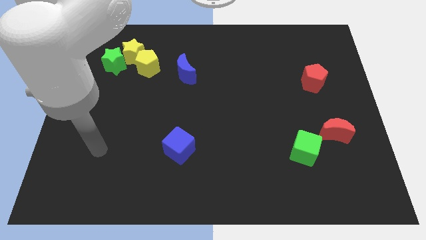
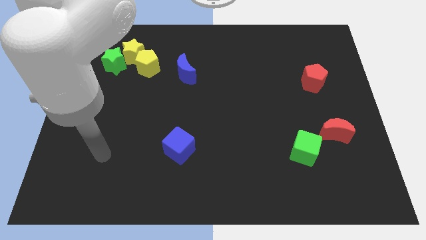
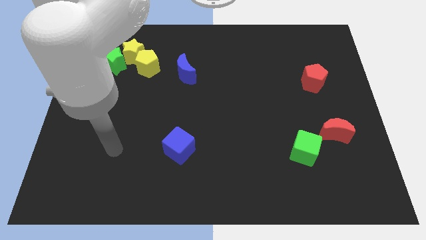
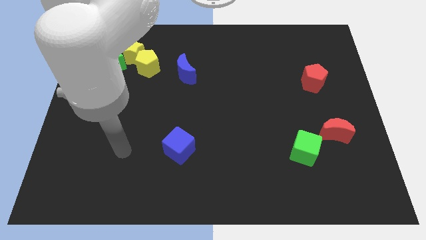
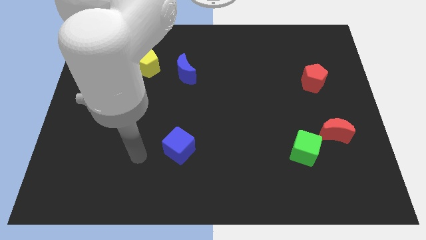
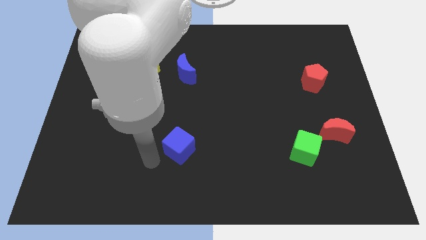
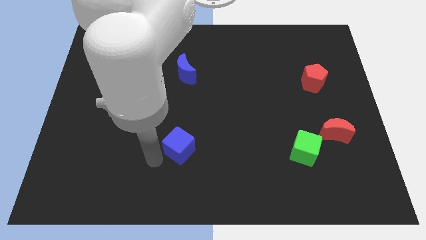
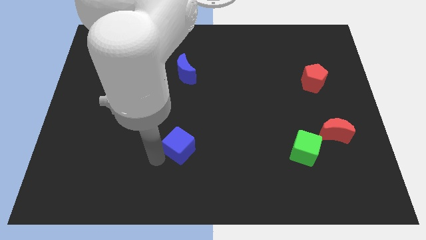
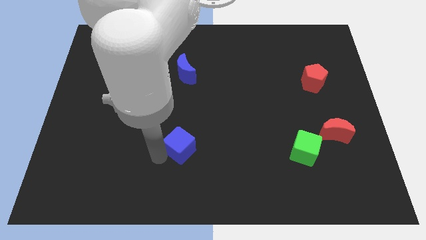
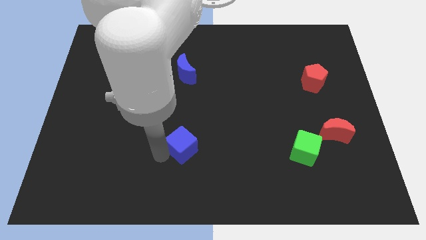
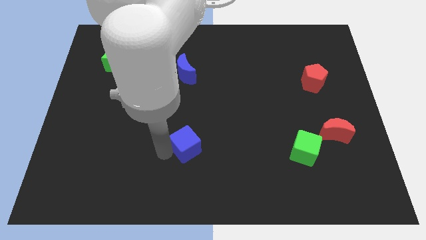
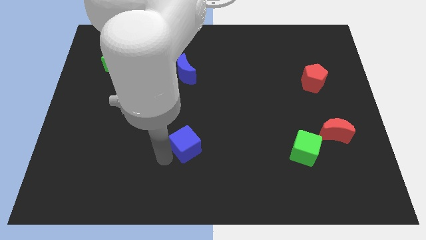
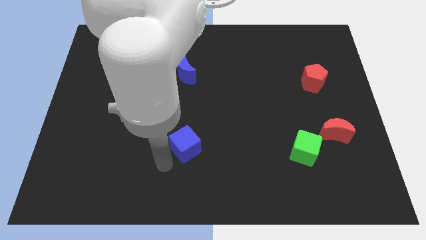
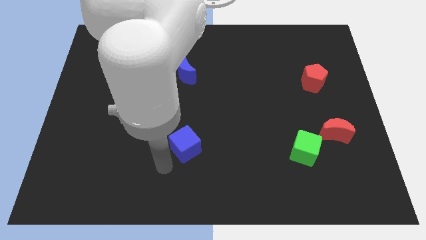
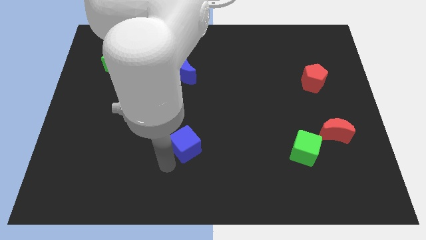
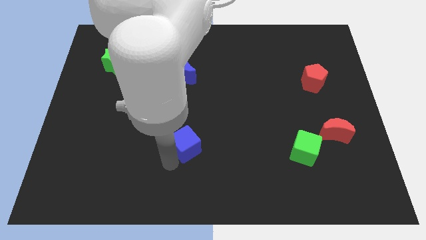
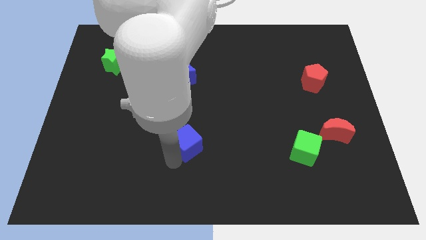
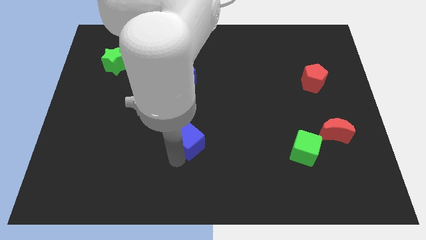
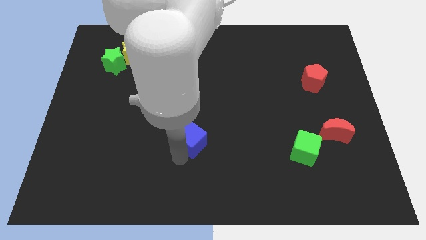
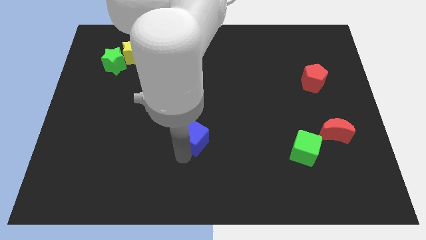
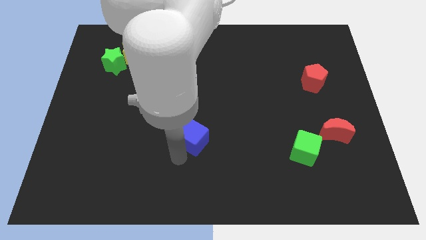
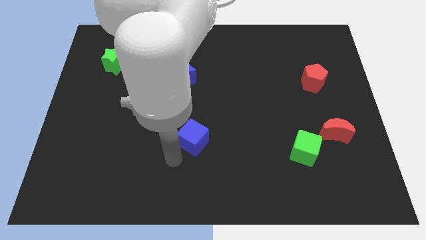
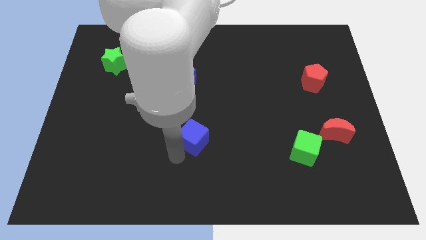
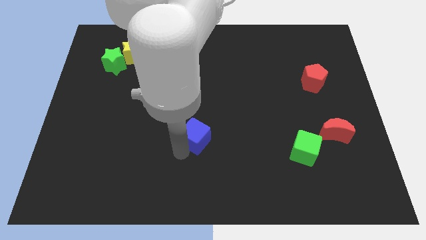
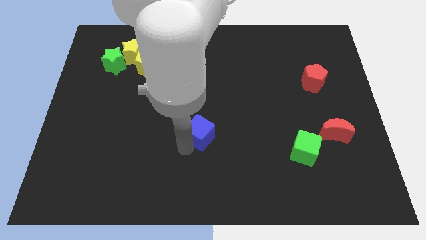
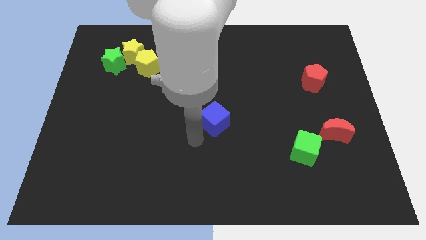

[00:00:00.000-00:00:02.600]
slide the blue cube diagonally upwards and right somewhat

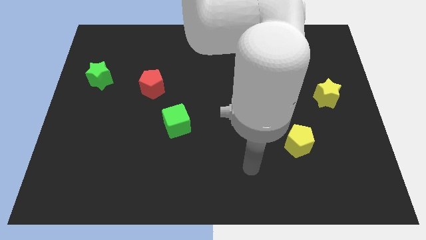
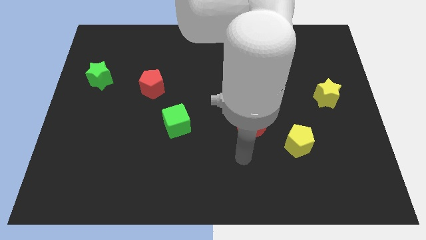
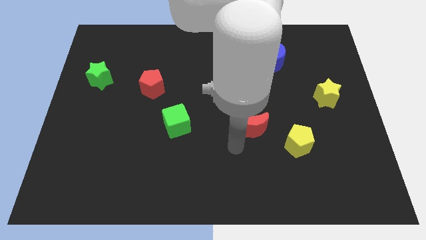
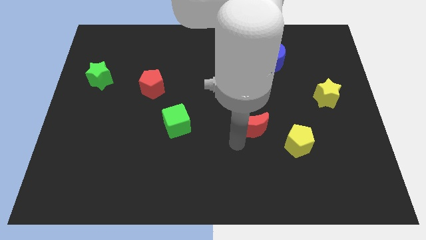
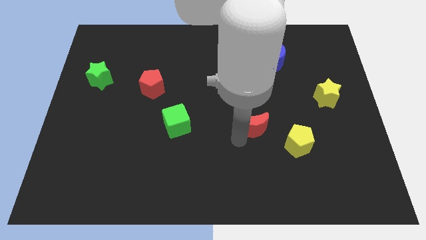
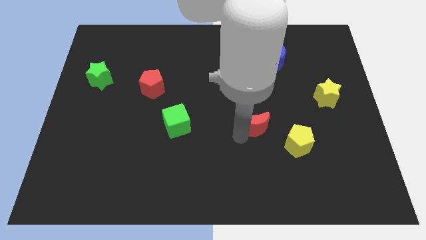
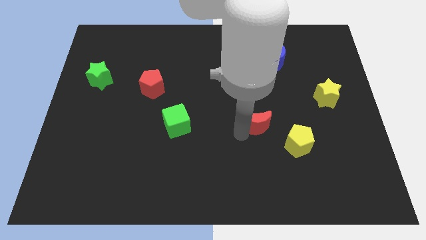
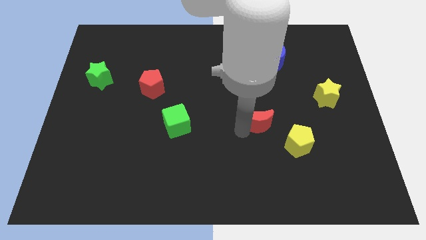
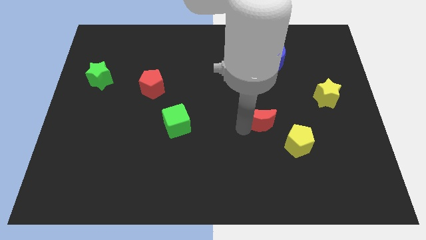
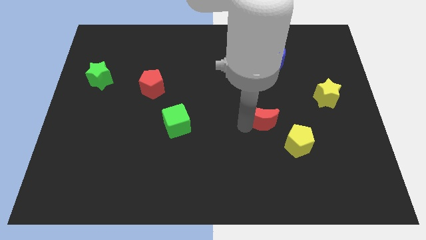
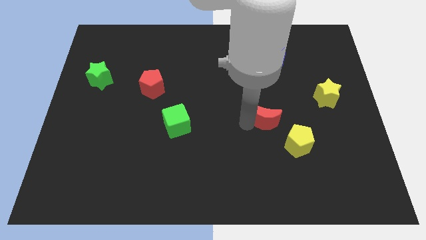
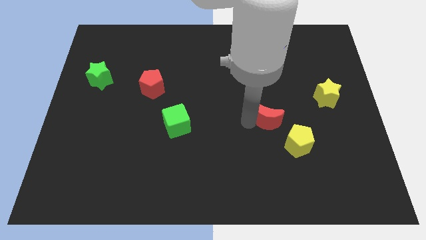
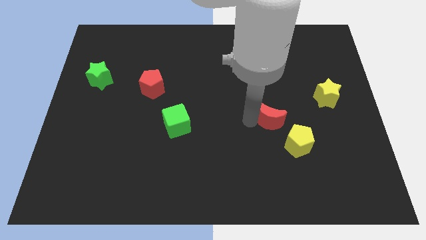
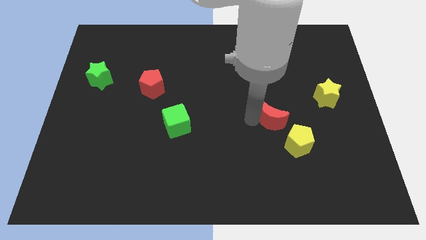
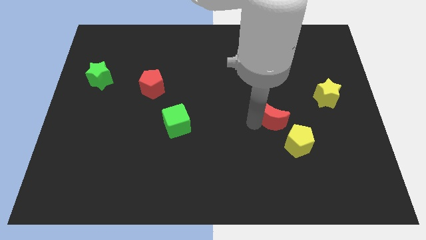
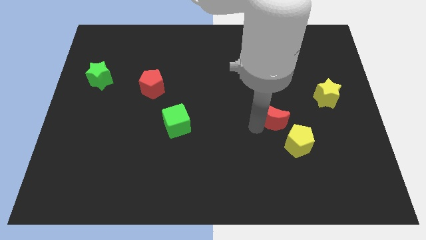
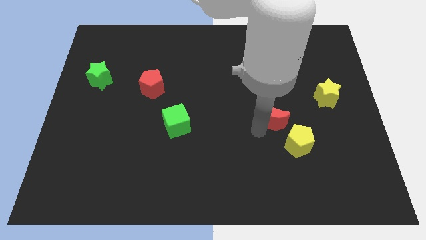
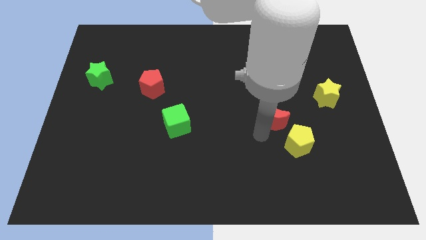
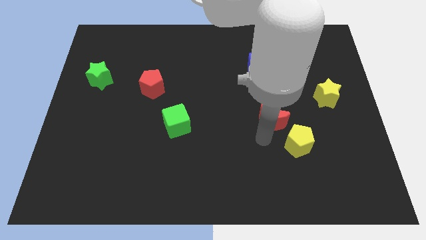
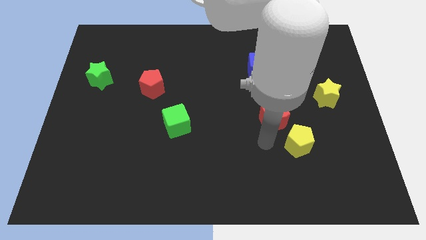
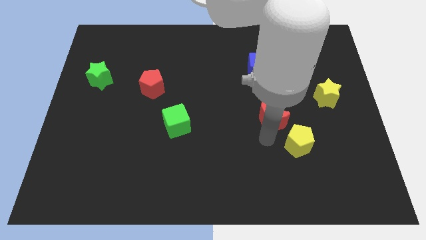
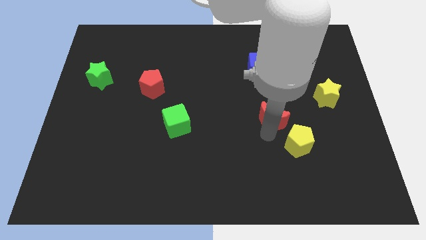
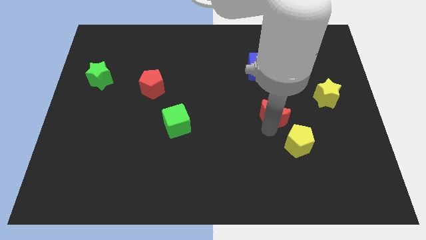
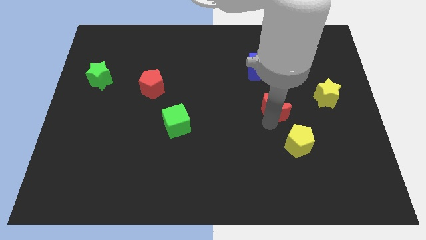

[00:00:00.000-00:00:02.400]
move the red moon up and right a little bit

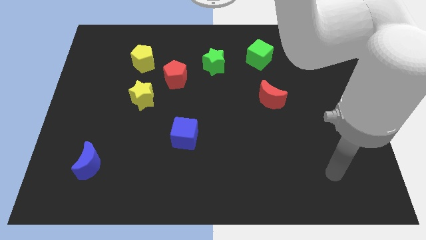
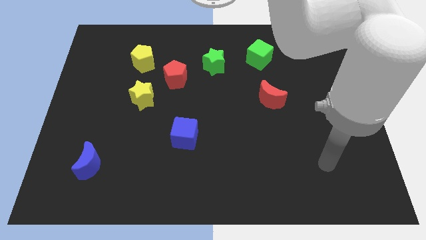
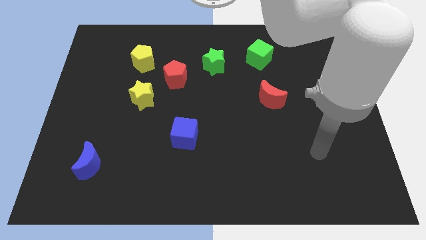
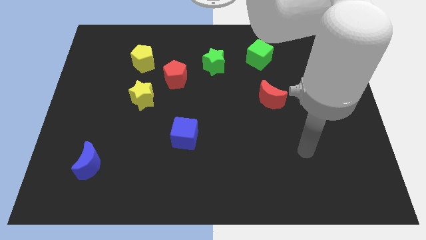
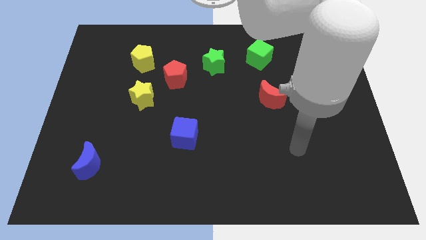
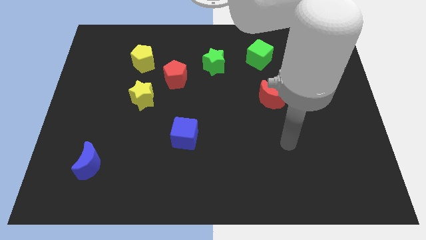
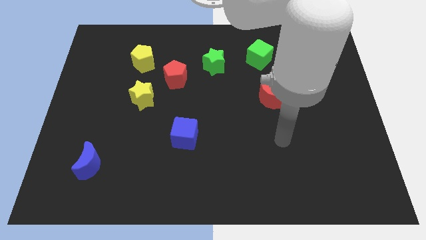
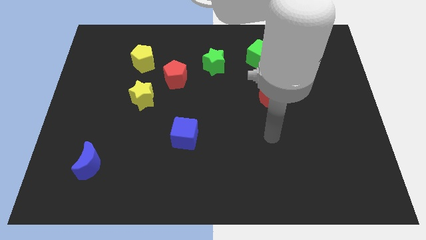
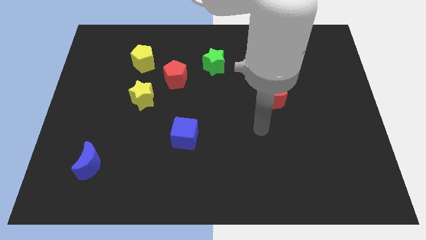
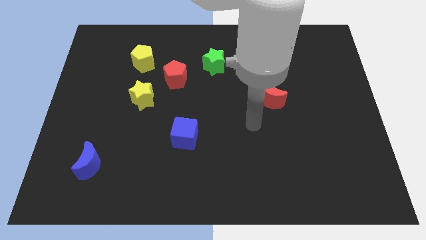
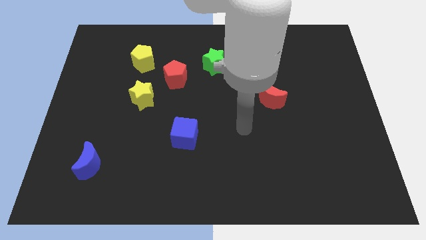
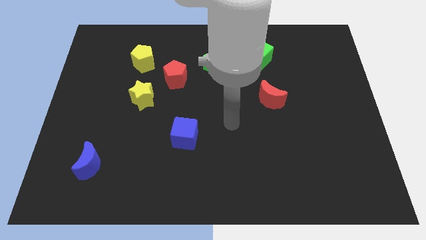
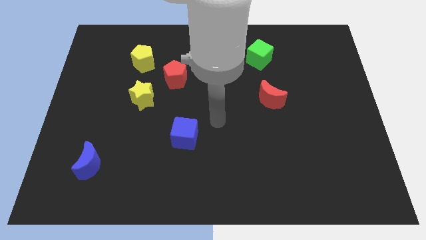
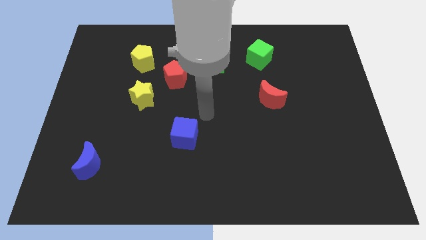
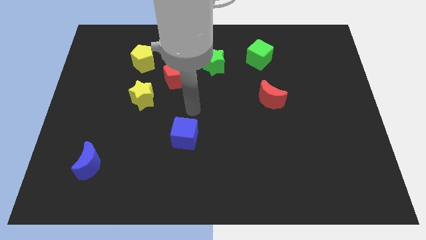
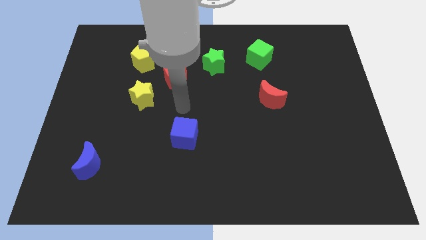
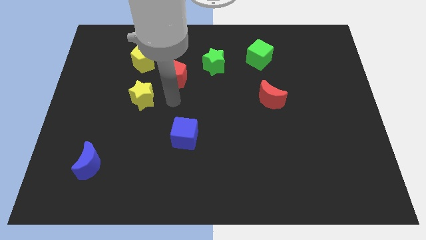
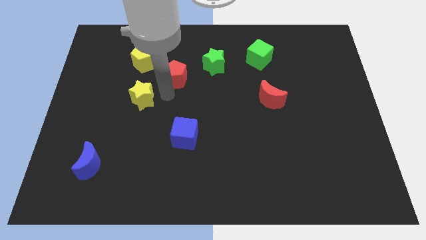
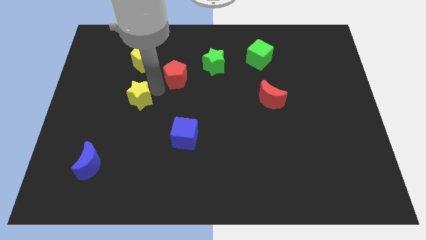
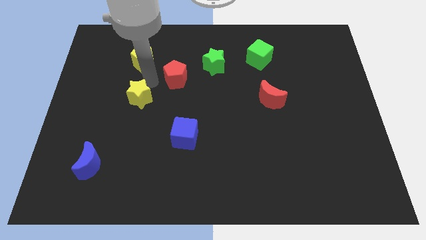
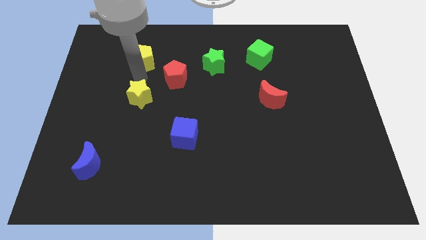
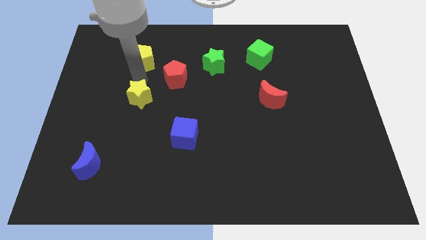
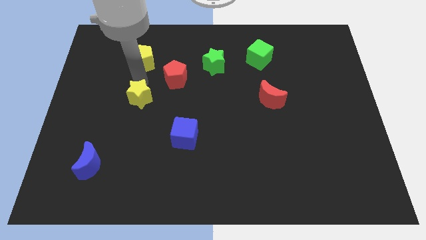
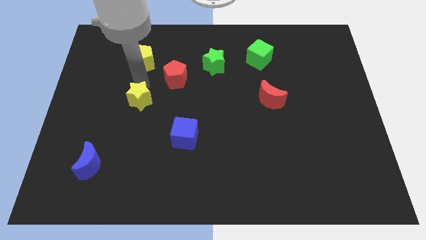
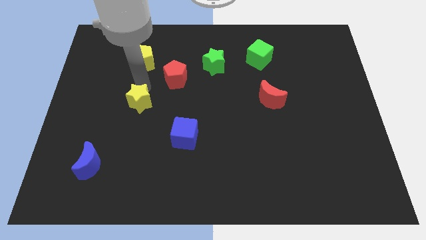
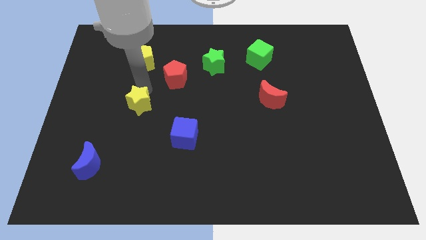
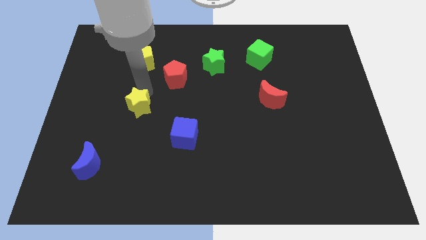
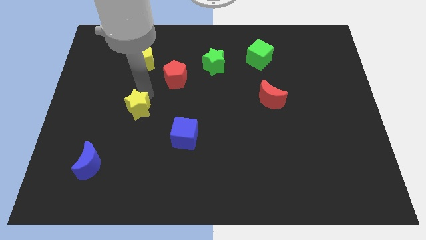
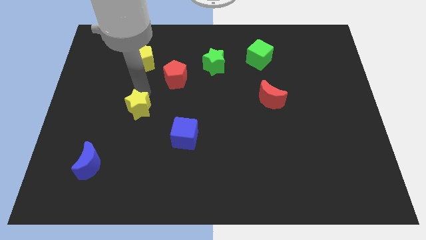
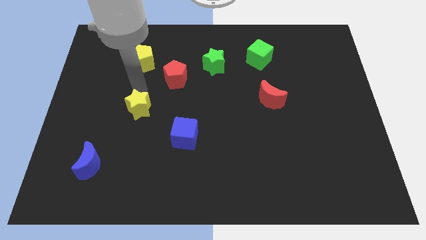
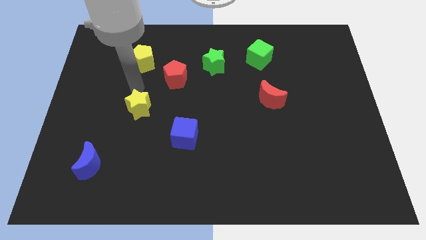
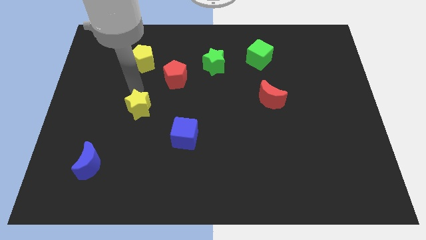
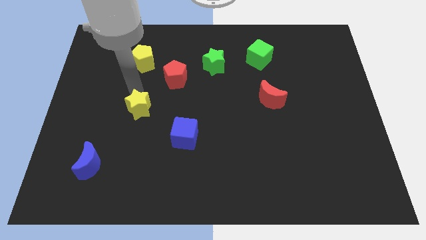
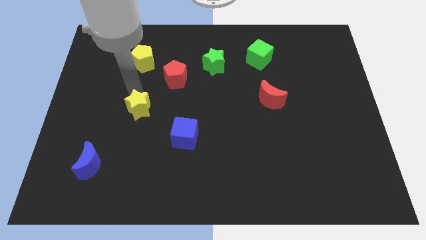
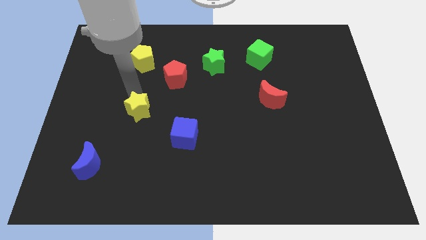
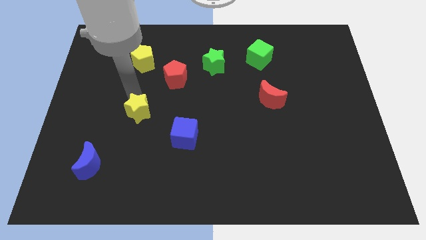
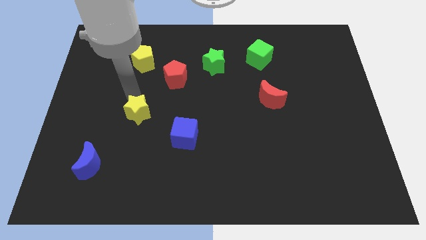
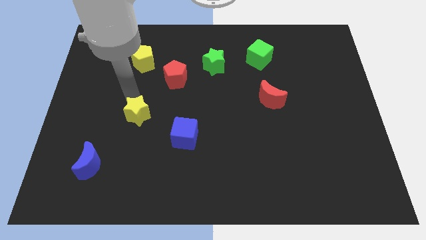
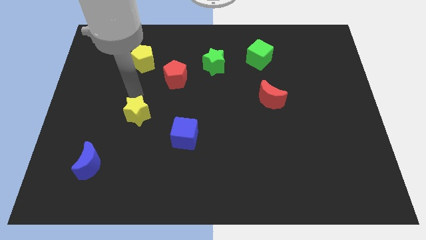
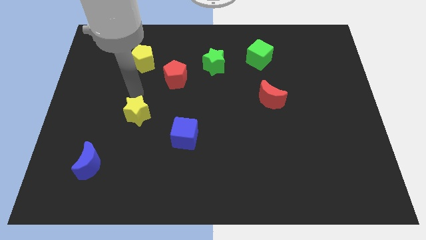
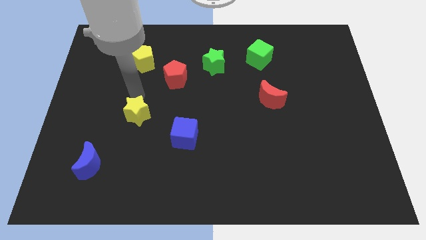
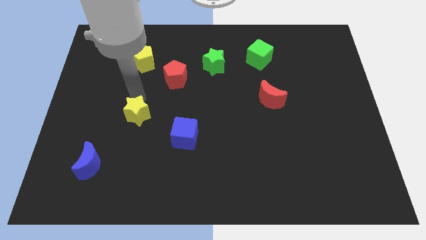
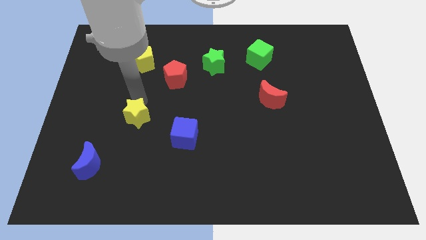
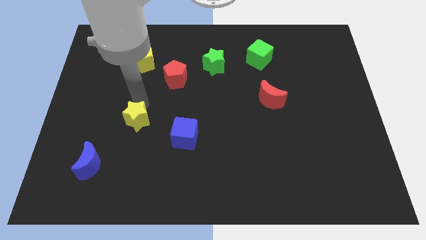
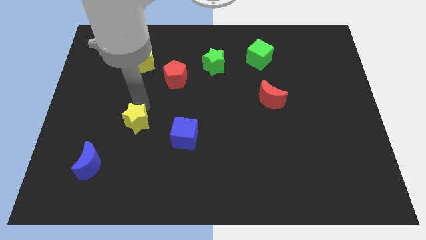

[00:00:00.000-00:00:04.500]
slide the yellow star a little downwards
